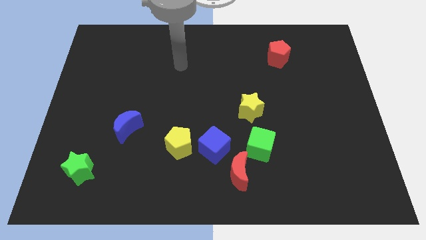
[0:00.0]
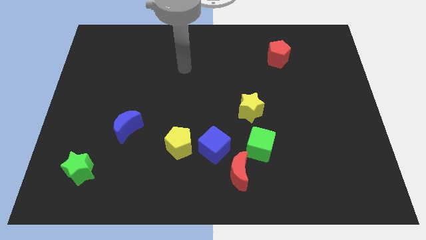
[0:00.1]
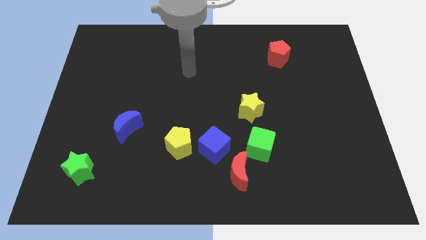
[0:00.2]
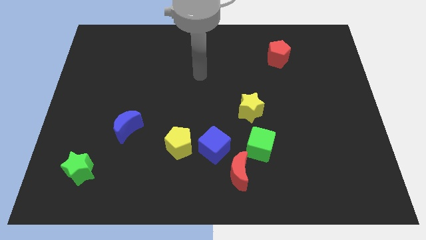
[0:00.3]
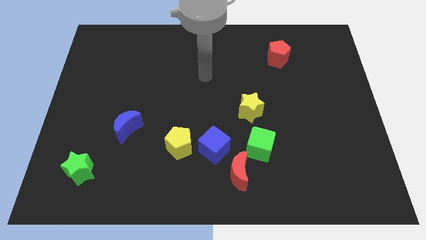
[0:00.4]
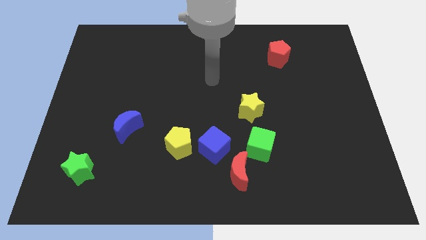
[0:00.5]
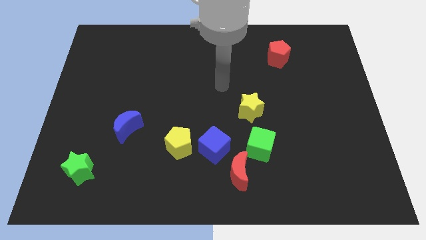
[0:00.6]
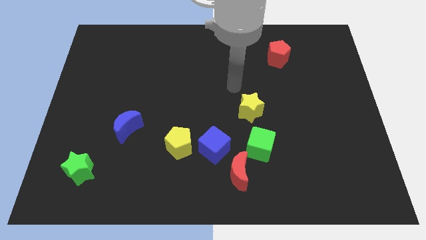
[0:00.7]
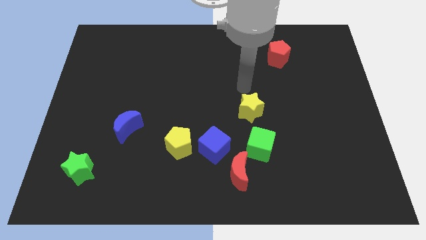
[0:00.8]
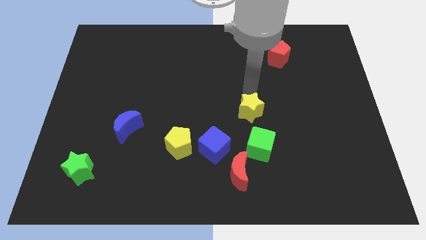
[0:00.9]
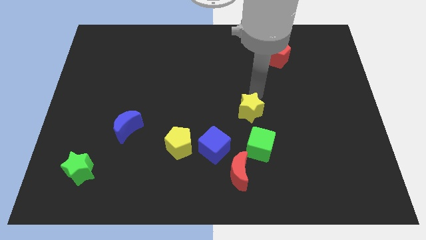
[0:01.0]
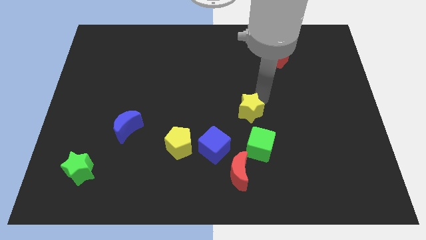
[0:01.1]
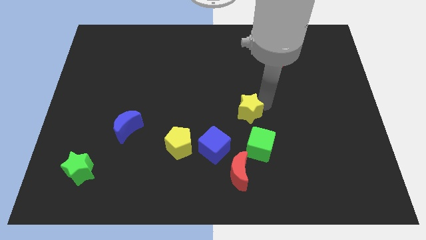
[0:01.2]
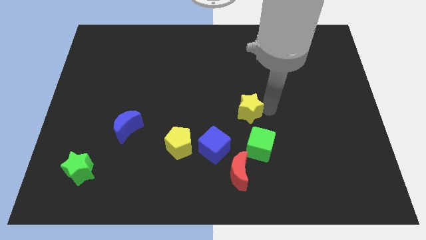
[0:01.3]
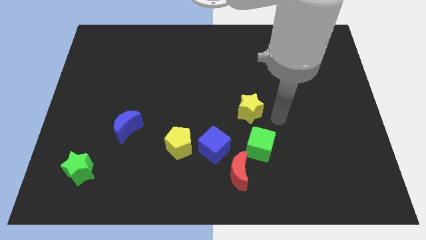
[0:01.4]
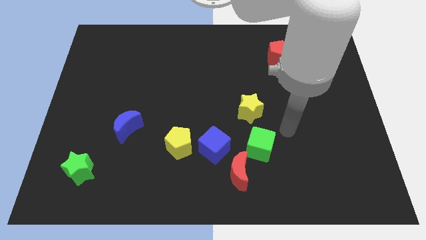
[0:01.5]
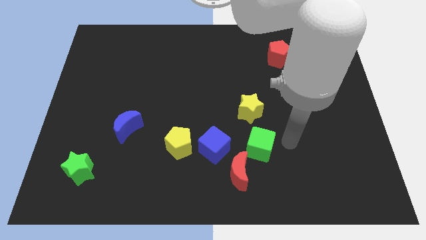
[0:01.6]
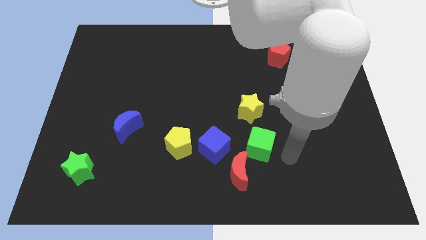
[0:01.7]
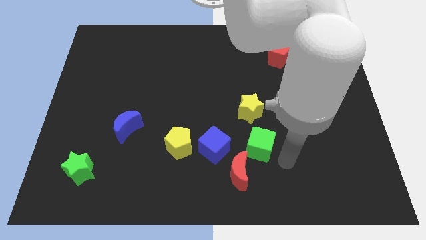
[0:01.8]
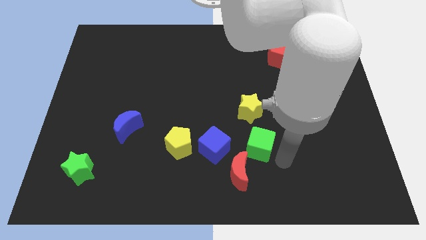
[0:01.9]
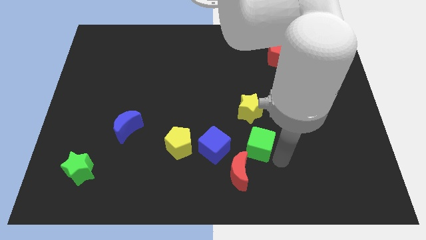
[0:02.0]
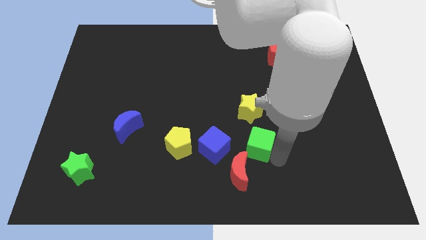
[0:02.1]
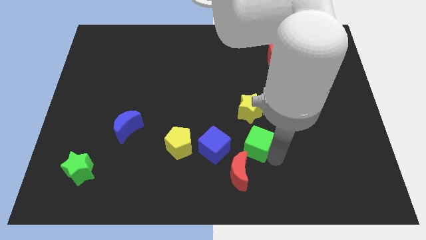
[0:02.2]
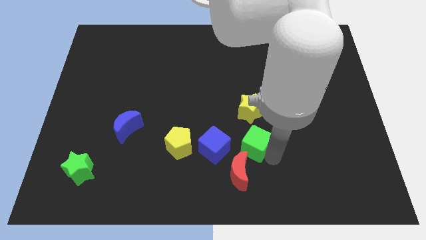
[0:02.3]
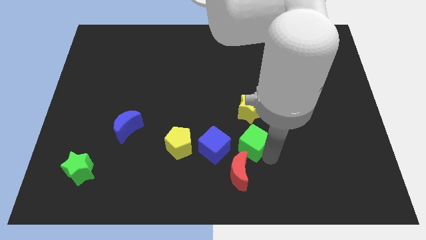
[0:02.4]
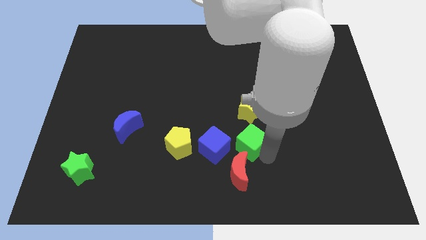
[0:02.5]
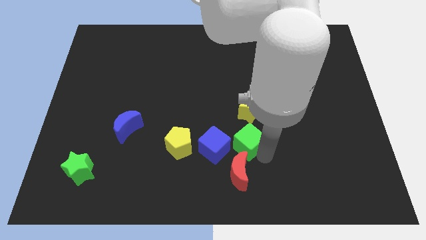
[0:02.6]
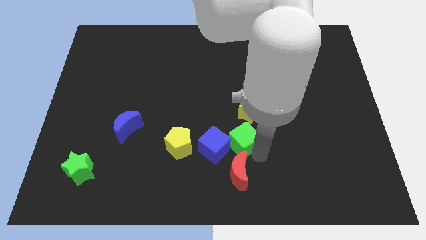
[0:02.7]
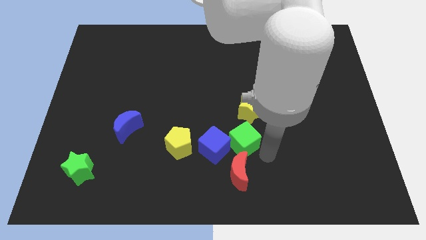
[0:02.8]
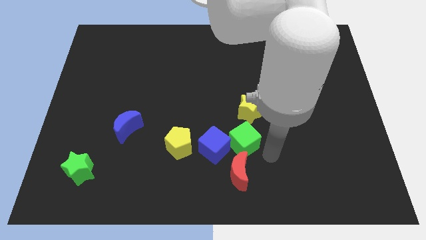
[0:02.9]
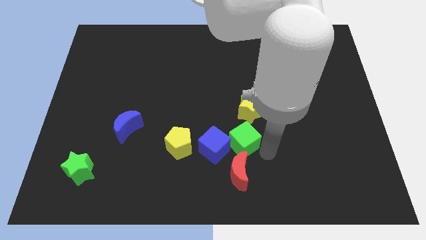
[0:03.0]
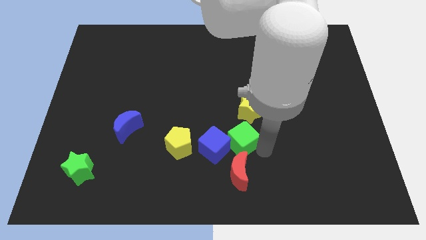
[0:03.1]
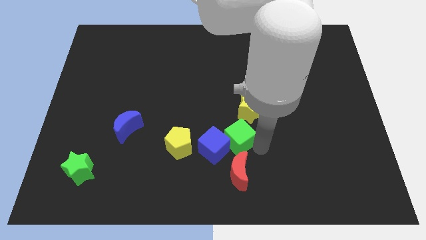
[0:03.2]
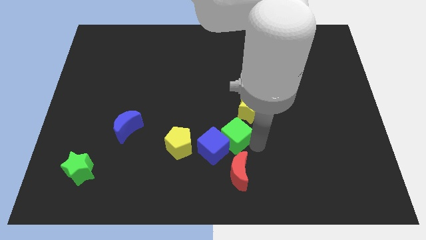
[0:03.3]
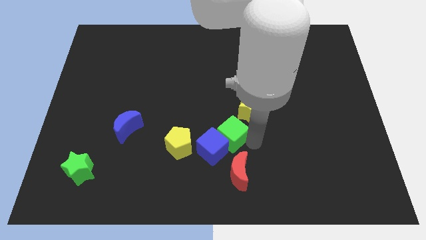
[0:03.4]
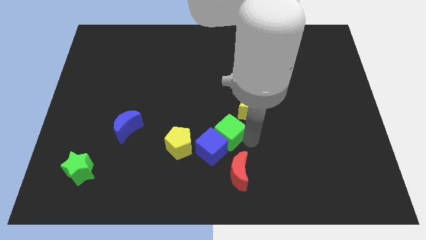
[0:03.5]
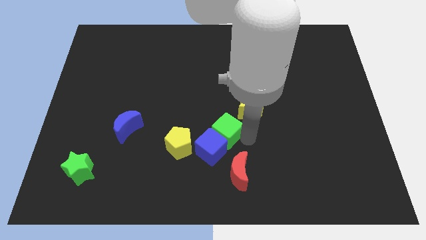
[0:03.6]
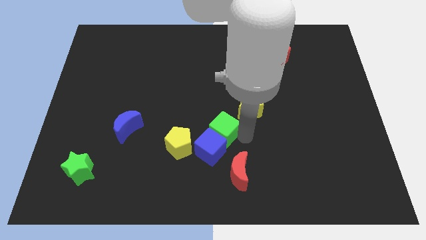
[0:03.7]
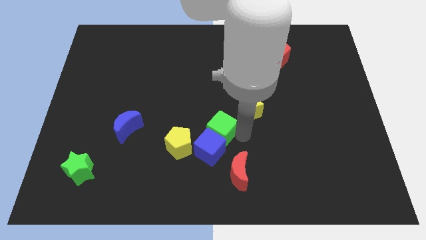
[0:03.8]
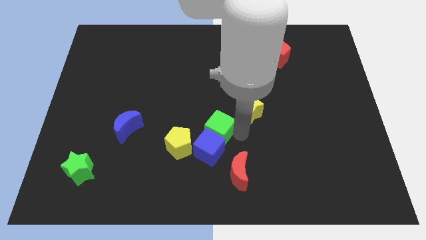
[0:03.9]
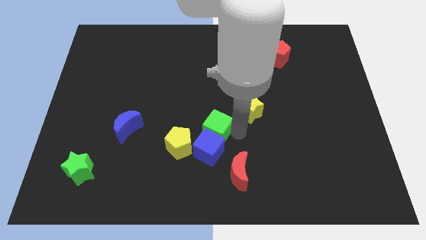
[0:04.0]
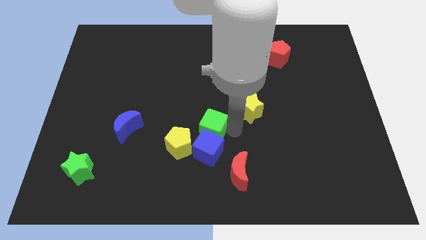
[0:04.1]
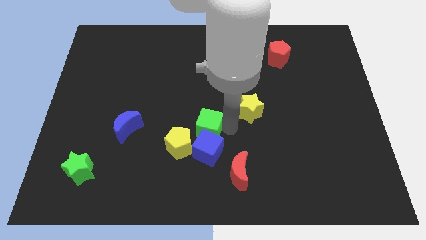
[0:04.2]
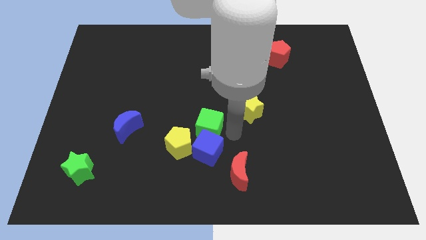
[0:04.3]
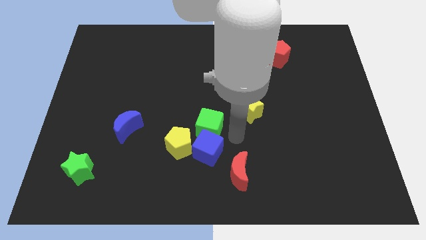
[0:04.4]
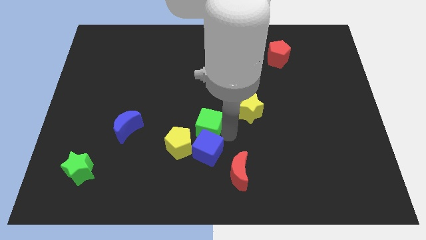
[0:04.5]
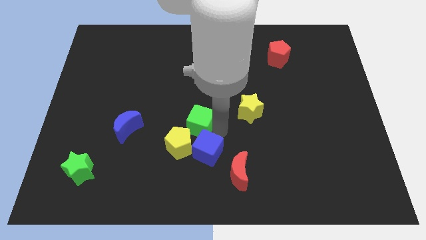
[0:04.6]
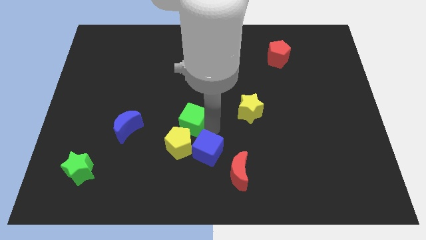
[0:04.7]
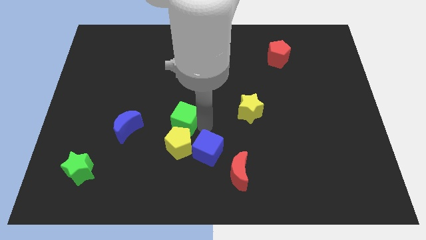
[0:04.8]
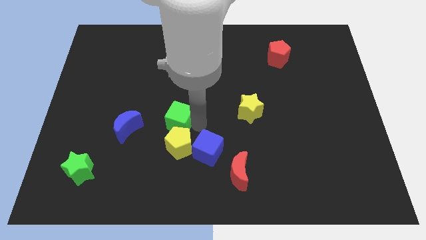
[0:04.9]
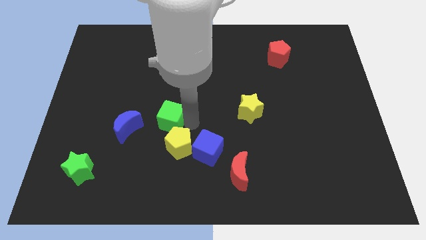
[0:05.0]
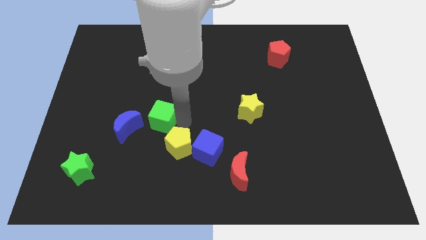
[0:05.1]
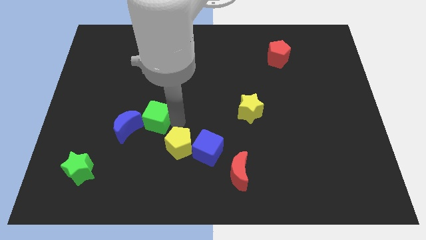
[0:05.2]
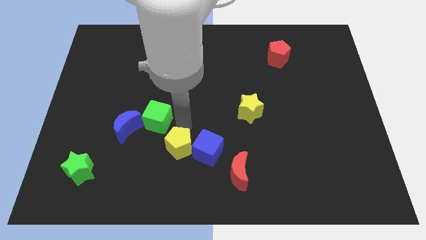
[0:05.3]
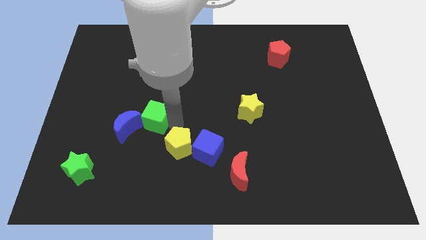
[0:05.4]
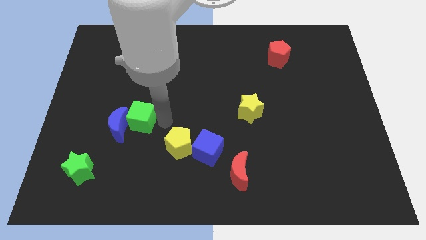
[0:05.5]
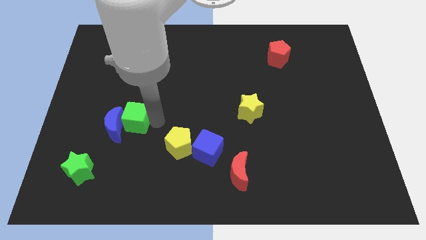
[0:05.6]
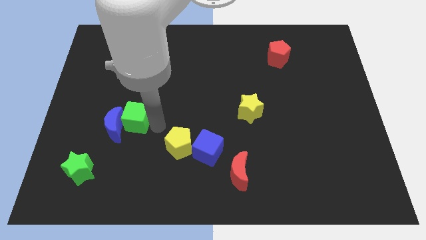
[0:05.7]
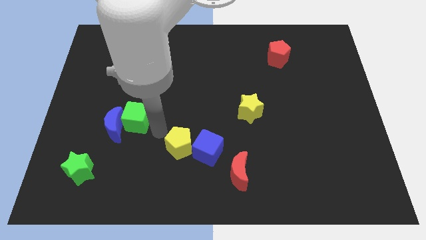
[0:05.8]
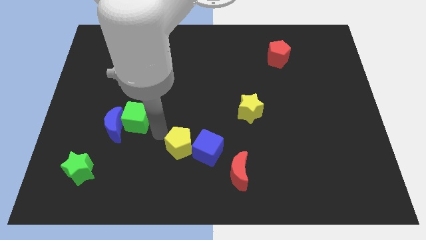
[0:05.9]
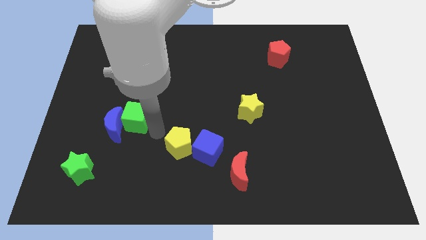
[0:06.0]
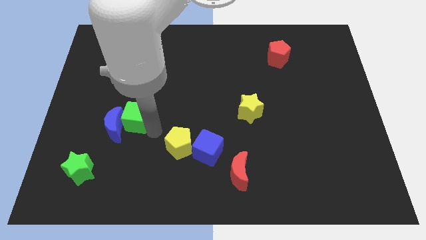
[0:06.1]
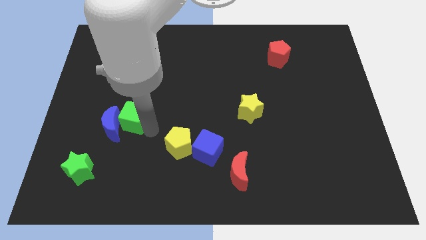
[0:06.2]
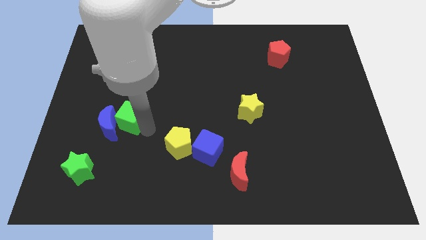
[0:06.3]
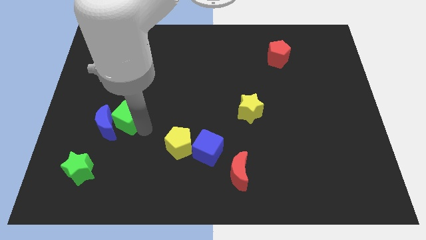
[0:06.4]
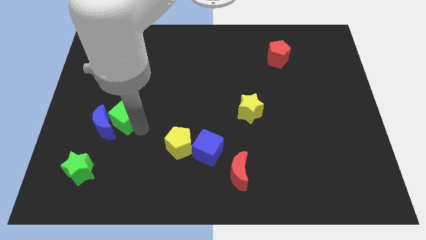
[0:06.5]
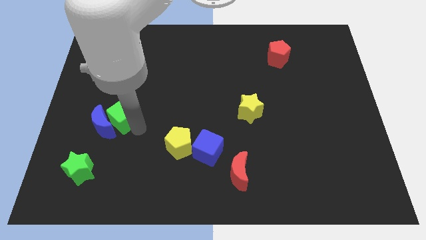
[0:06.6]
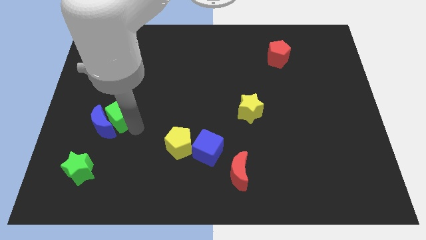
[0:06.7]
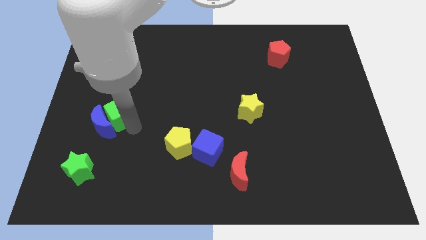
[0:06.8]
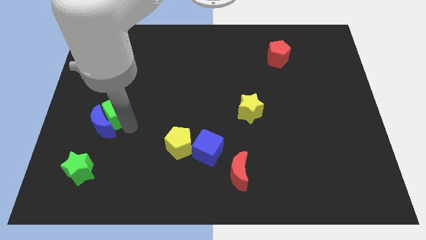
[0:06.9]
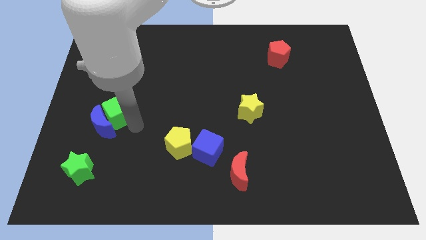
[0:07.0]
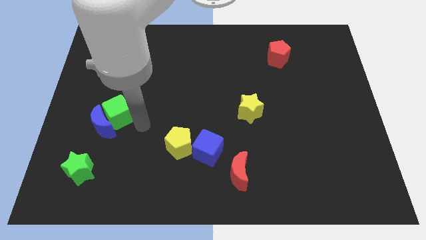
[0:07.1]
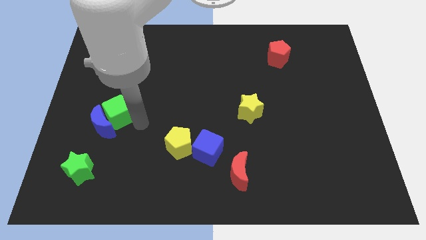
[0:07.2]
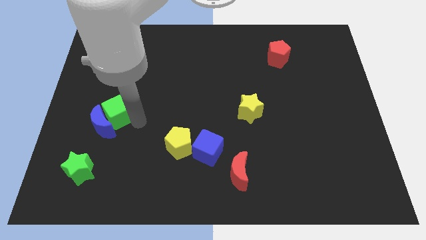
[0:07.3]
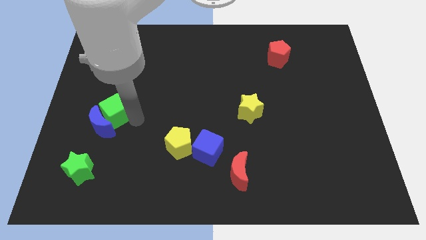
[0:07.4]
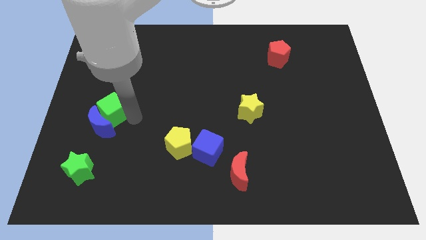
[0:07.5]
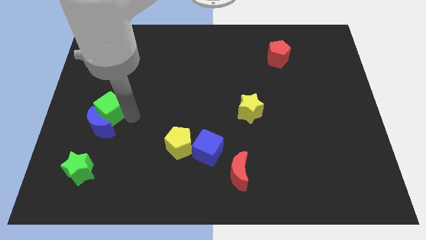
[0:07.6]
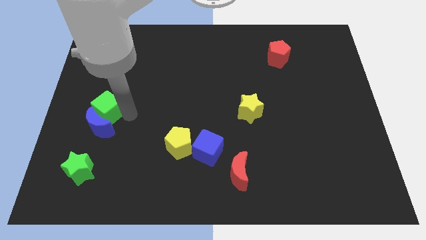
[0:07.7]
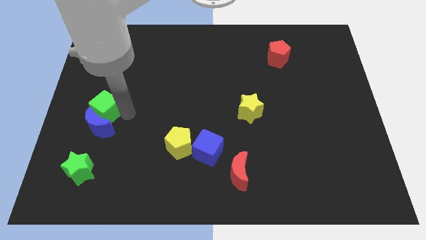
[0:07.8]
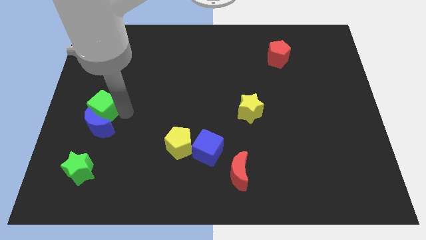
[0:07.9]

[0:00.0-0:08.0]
put the green cube to the left side of the board
